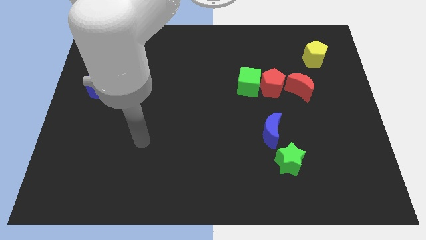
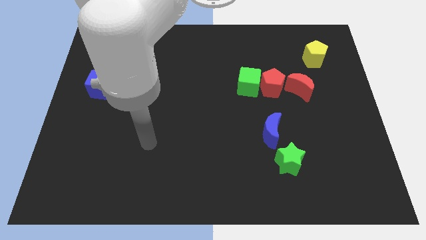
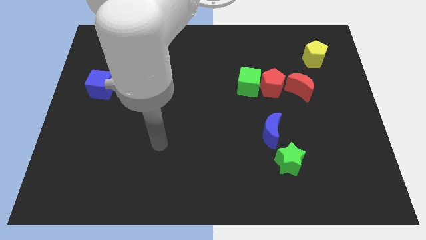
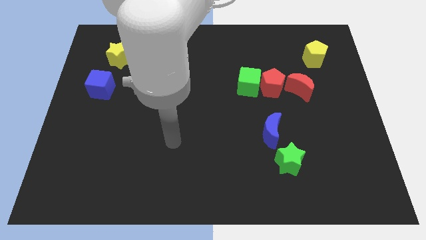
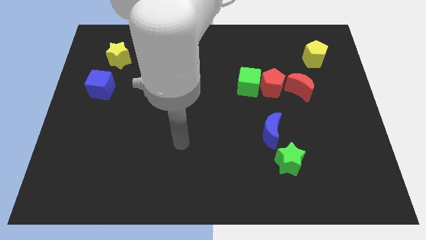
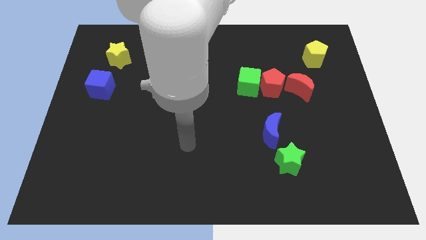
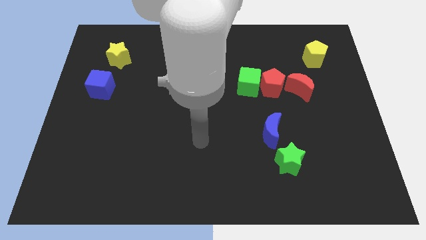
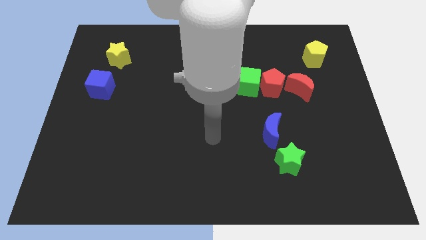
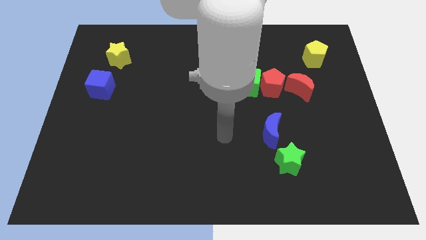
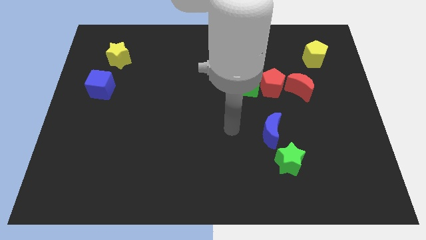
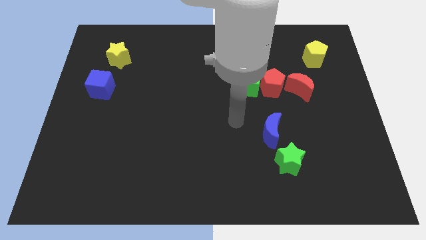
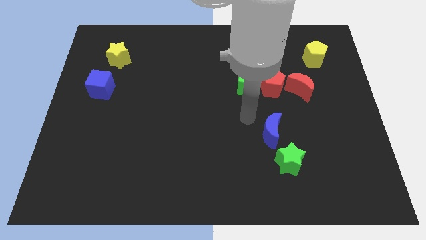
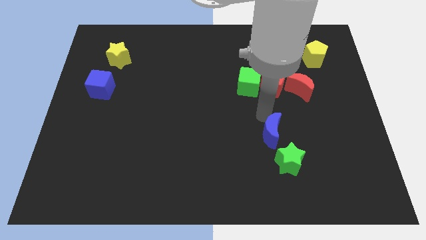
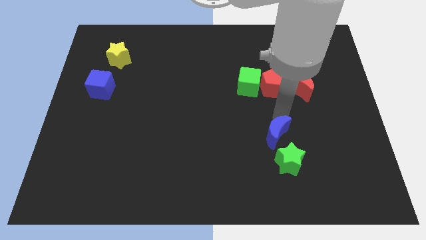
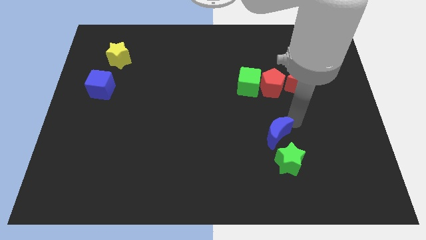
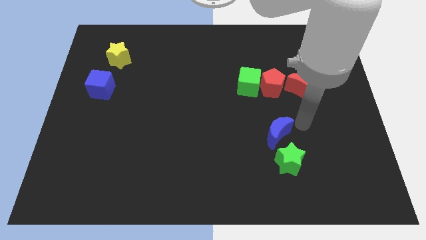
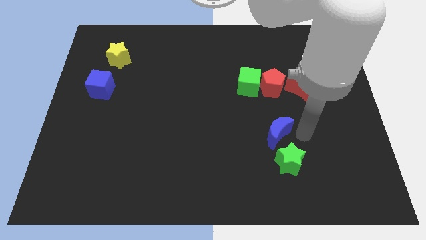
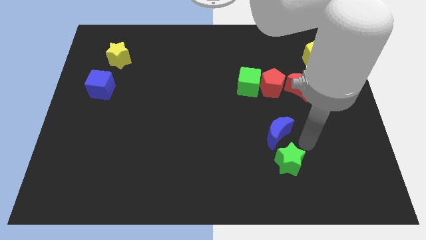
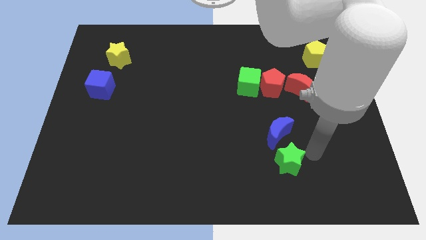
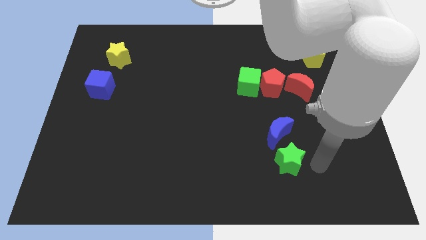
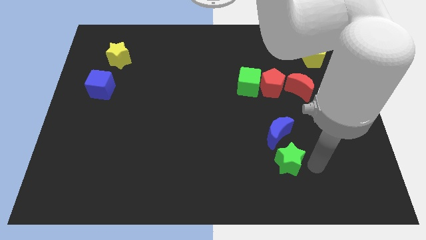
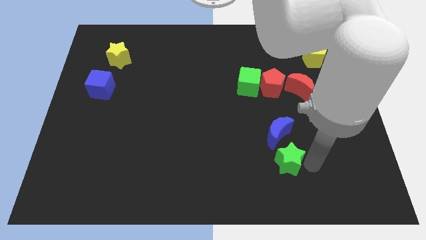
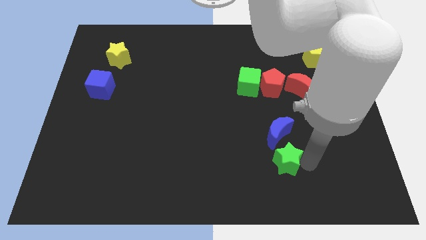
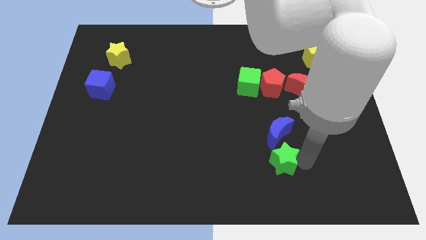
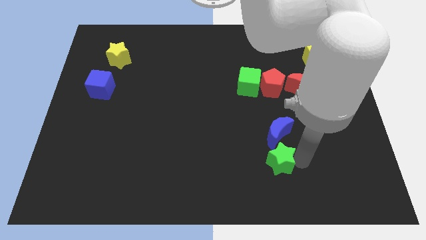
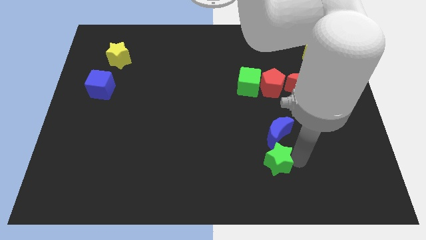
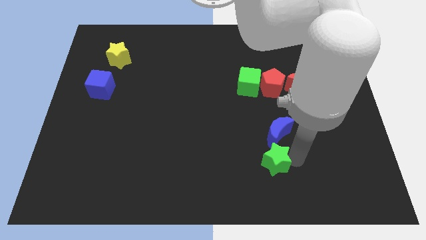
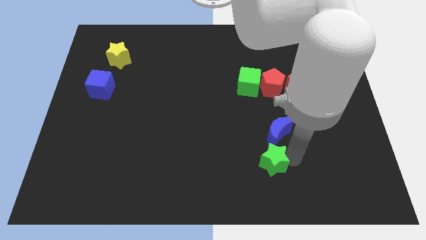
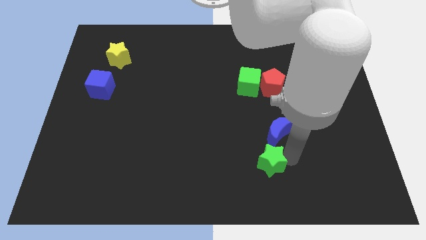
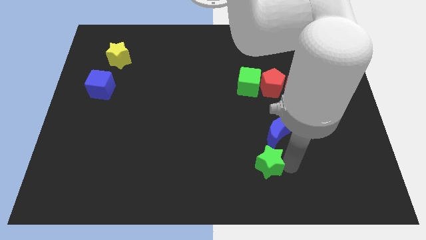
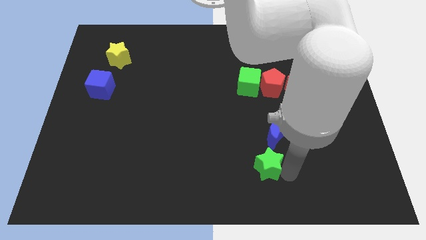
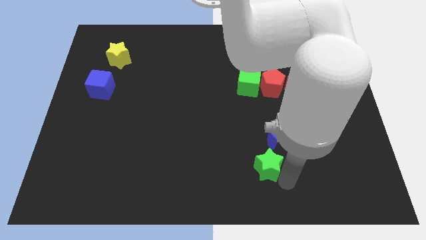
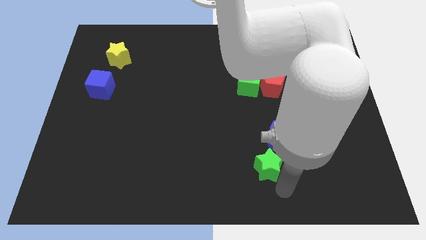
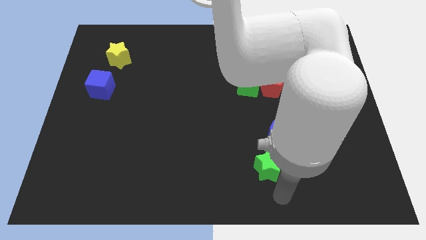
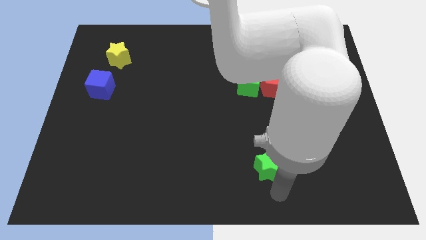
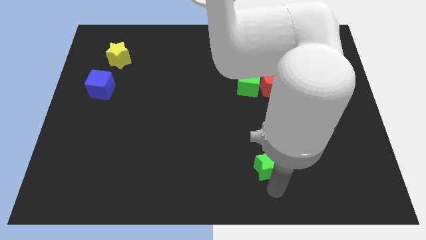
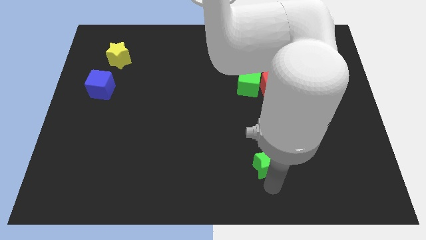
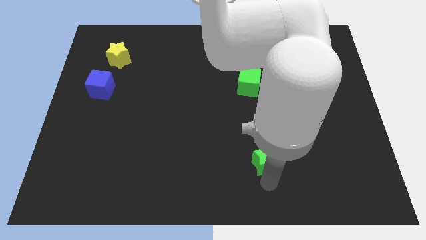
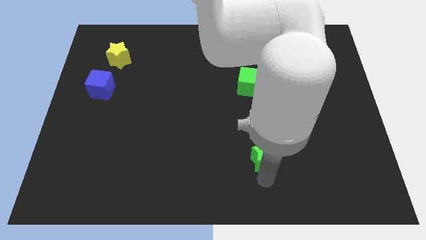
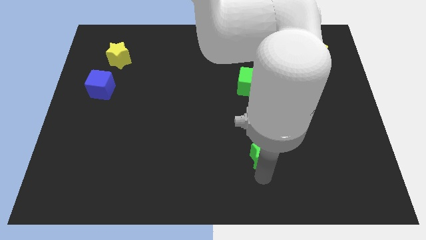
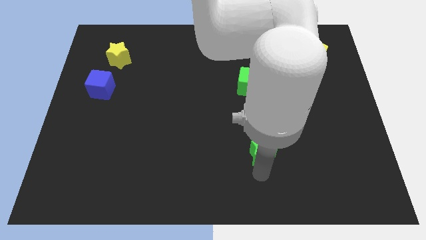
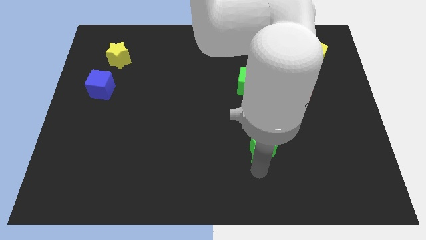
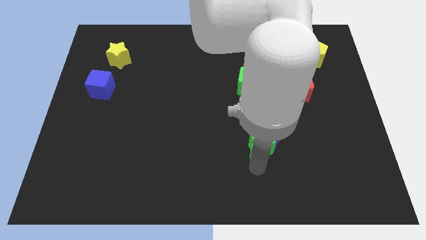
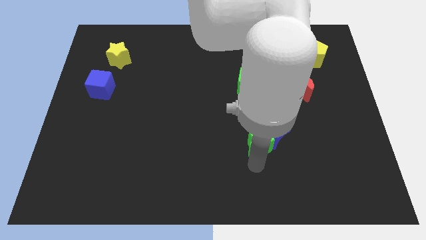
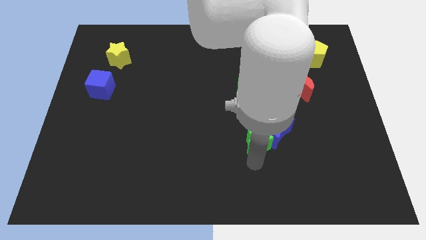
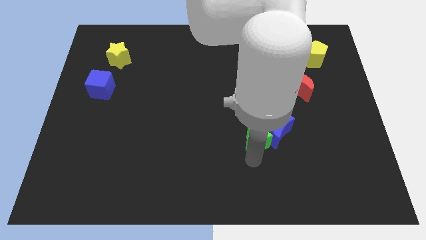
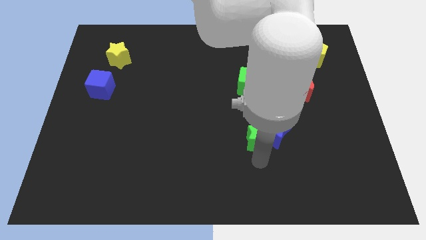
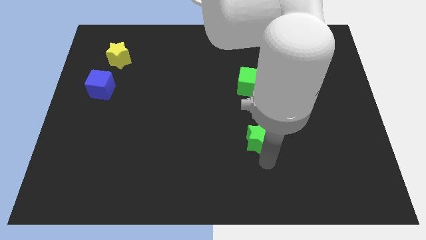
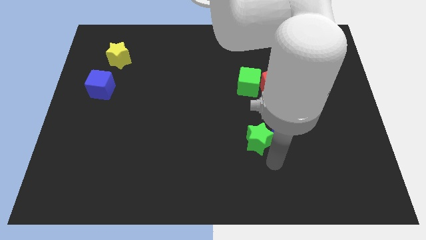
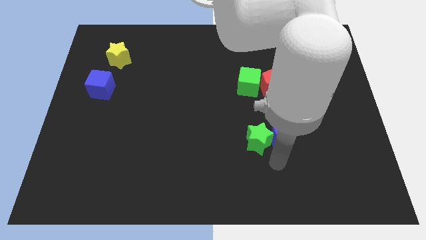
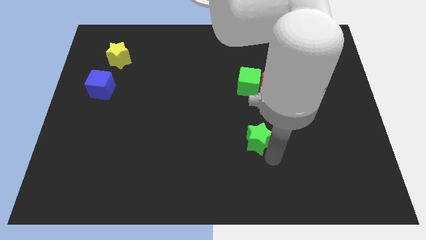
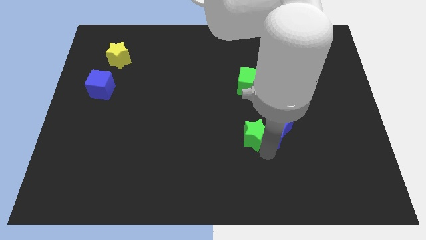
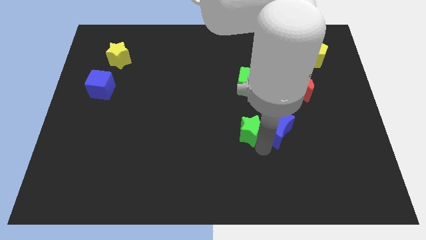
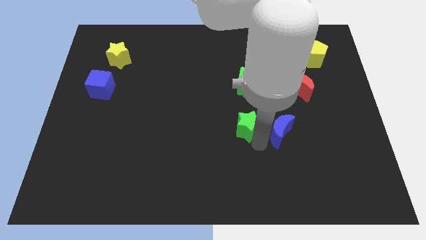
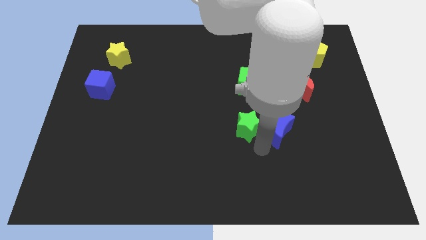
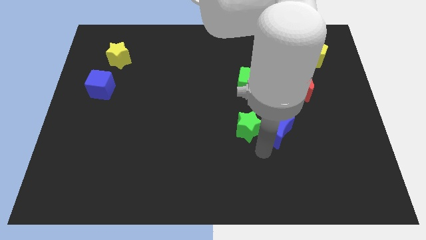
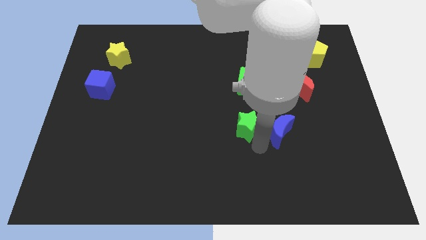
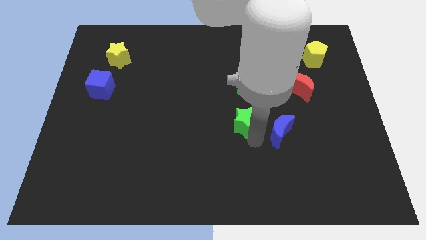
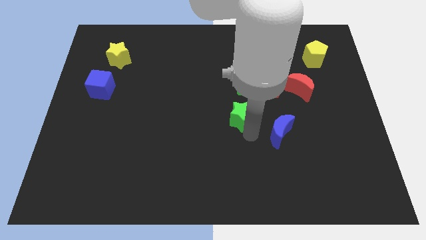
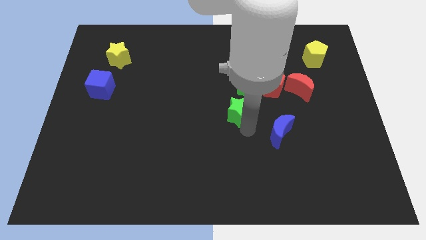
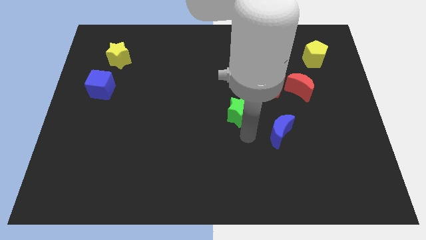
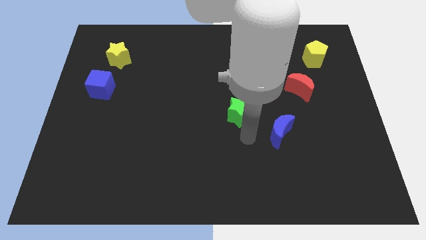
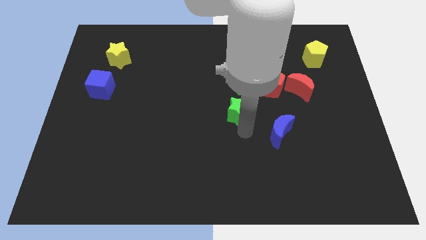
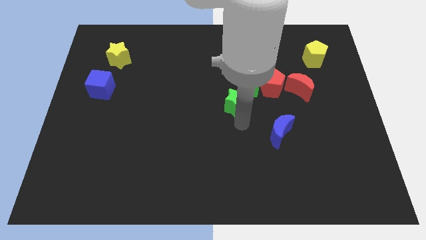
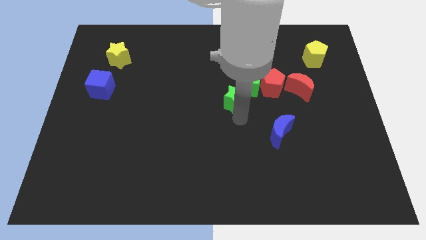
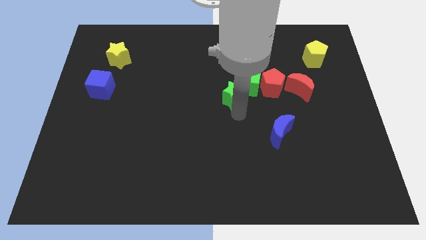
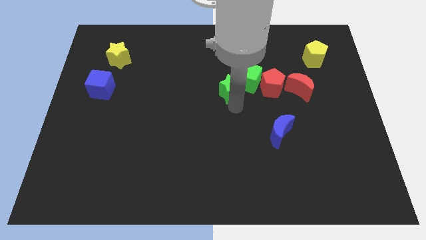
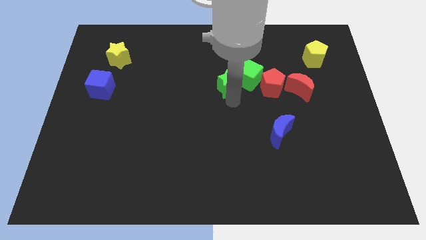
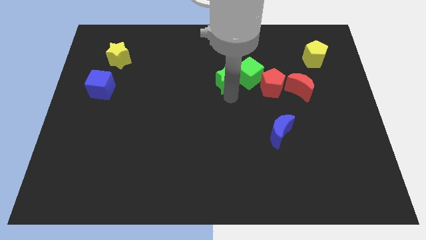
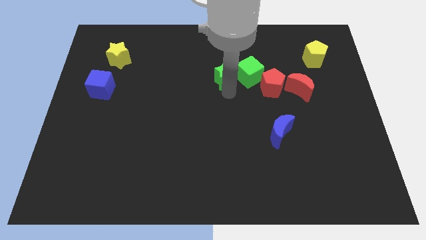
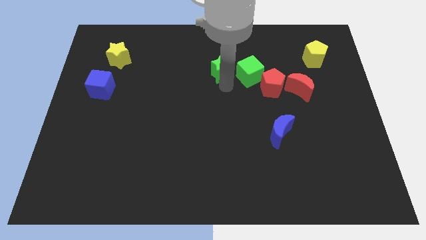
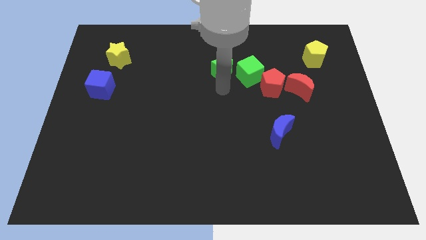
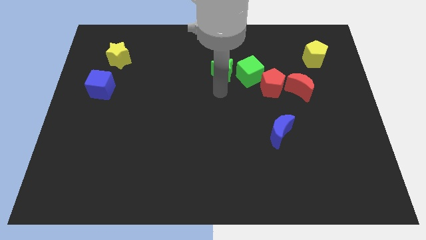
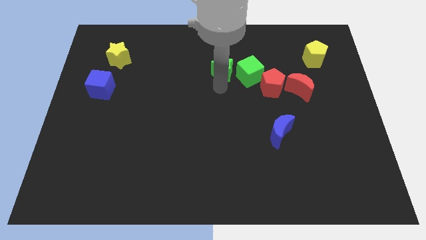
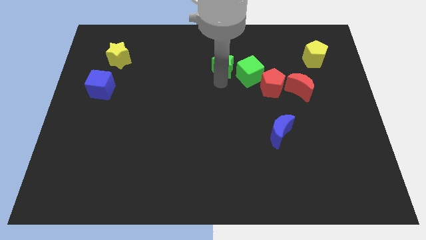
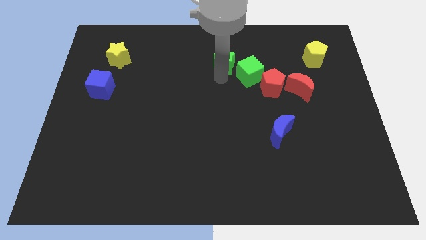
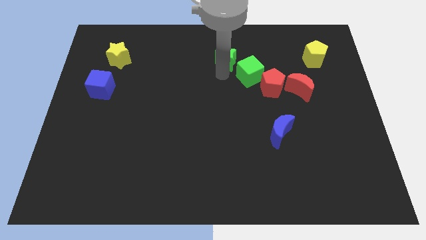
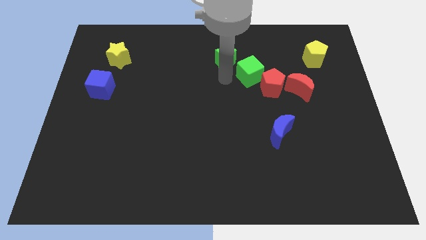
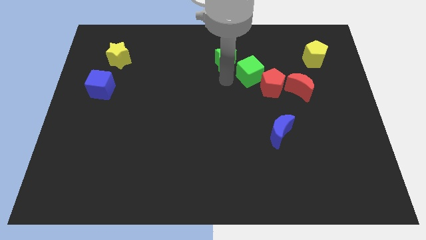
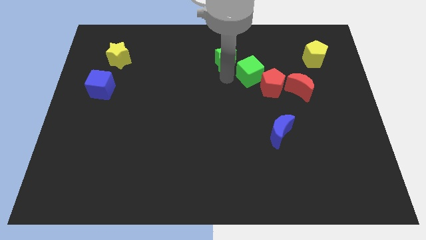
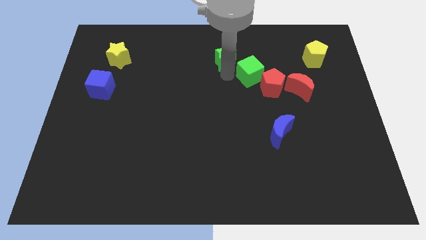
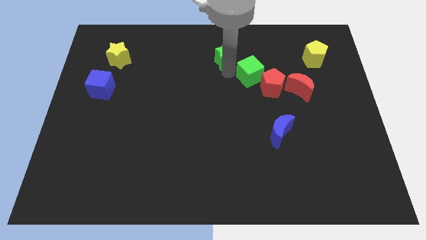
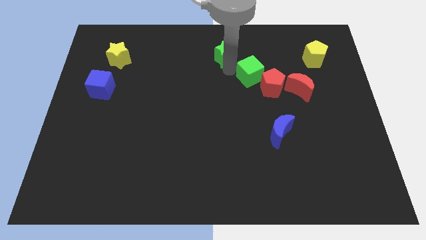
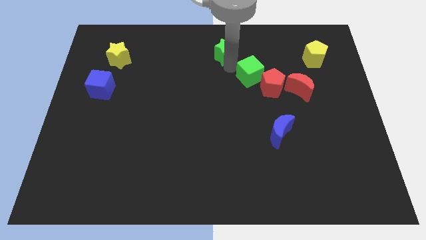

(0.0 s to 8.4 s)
push the green star to the towards your base
